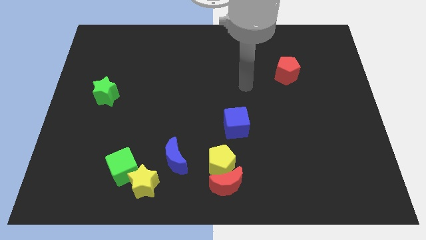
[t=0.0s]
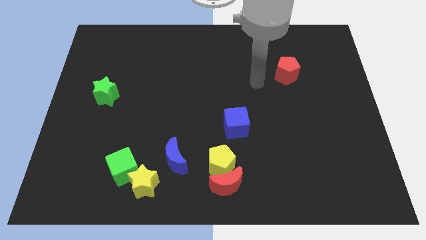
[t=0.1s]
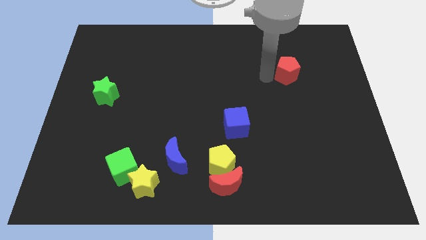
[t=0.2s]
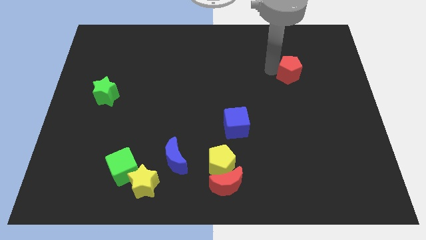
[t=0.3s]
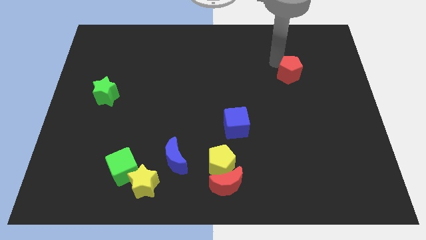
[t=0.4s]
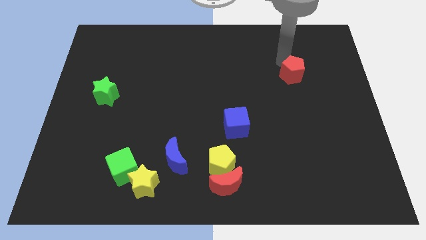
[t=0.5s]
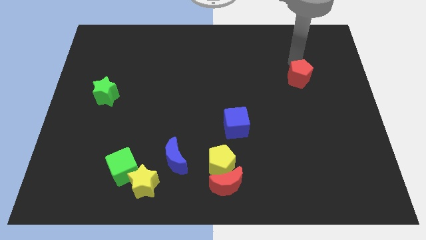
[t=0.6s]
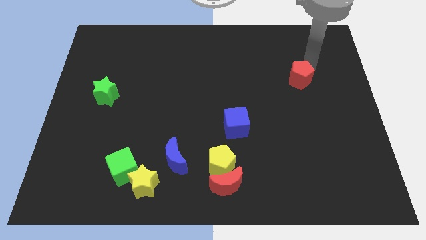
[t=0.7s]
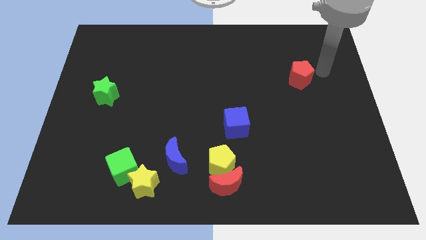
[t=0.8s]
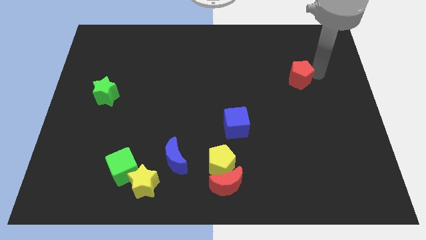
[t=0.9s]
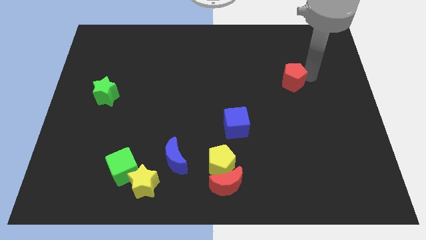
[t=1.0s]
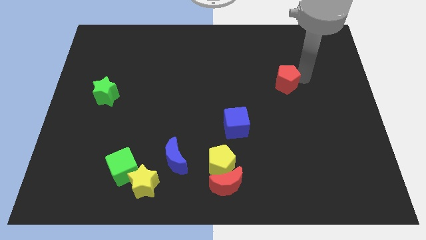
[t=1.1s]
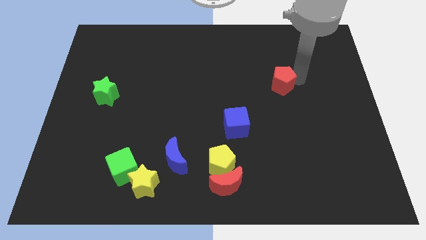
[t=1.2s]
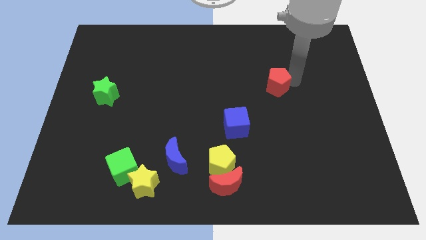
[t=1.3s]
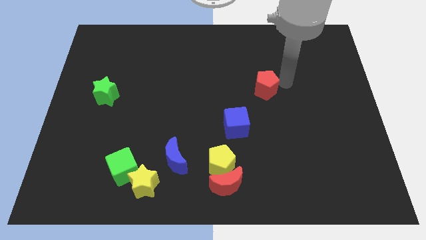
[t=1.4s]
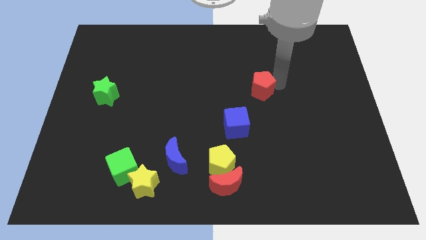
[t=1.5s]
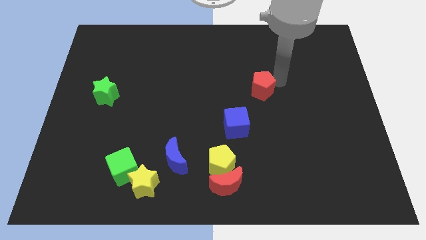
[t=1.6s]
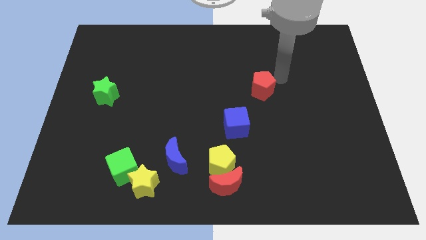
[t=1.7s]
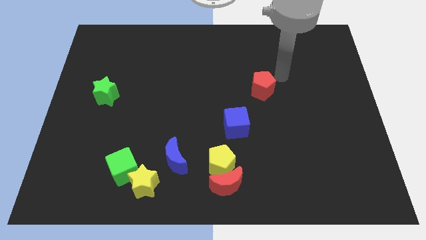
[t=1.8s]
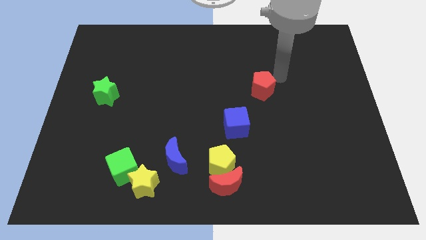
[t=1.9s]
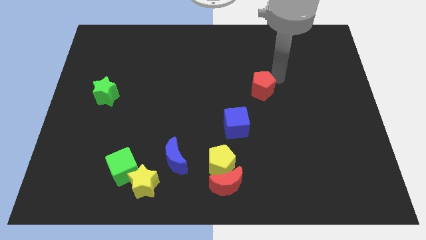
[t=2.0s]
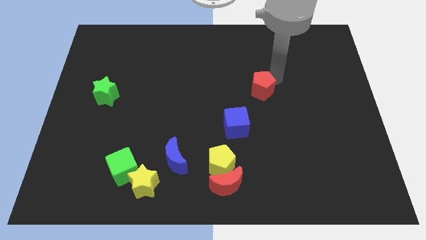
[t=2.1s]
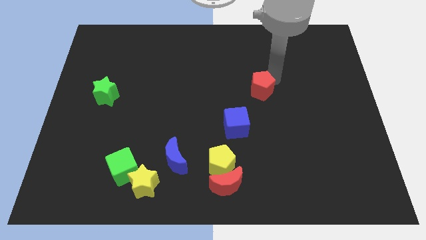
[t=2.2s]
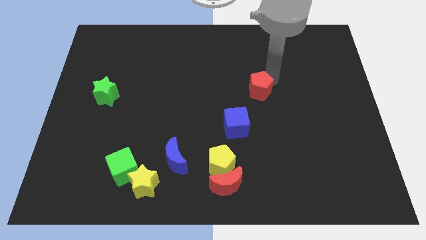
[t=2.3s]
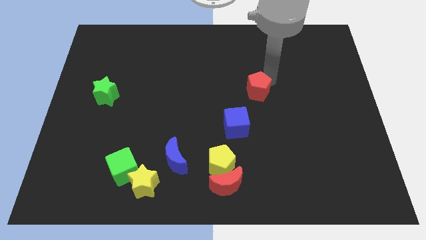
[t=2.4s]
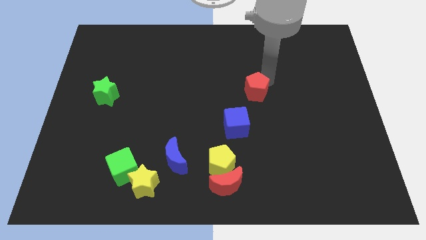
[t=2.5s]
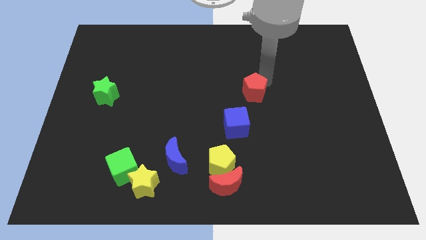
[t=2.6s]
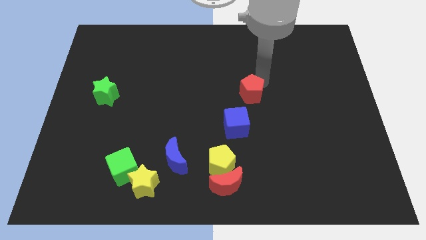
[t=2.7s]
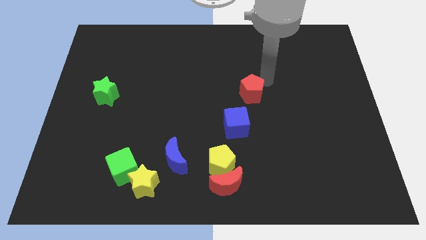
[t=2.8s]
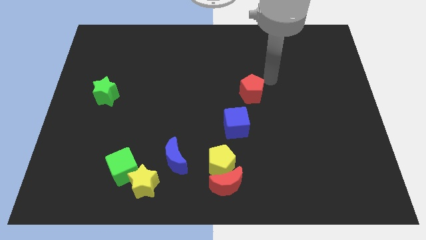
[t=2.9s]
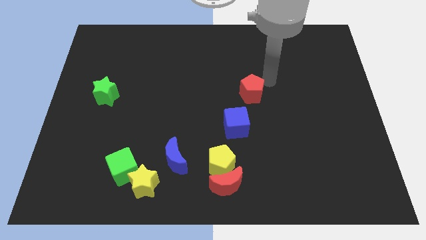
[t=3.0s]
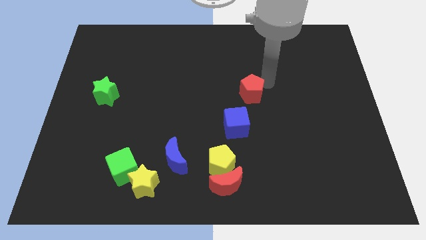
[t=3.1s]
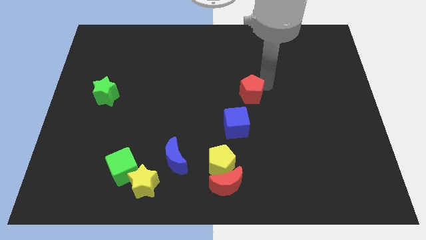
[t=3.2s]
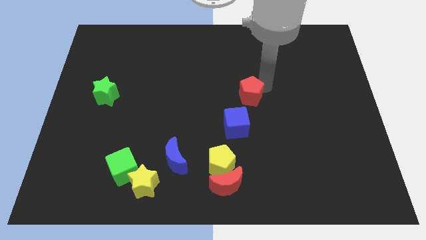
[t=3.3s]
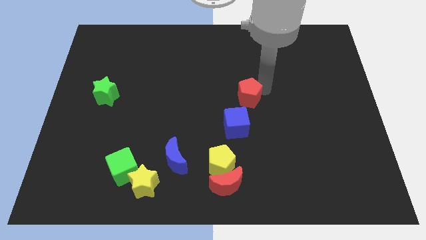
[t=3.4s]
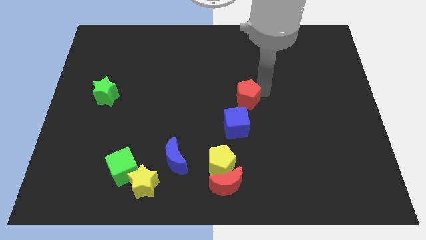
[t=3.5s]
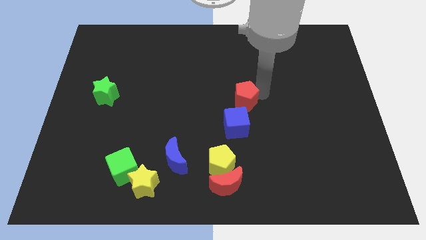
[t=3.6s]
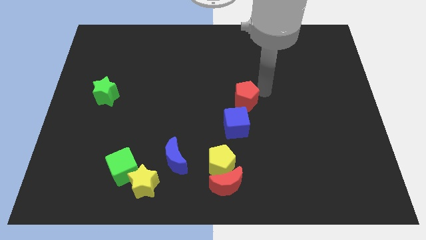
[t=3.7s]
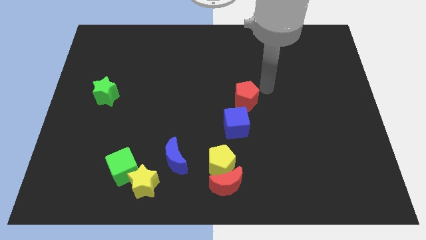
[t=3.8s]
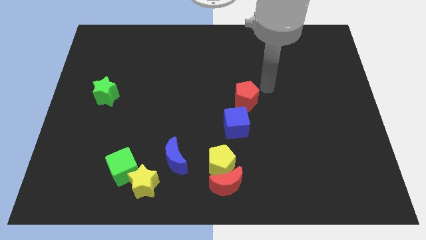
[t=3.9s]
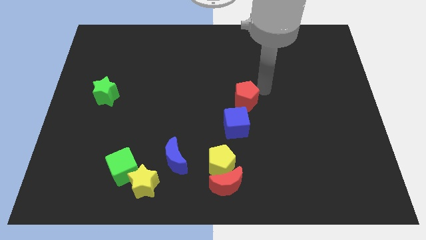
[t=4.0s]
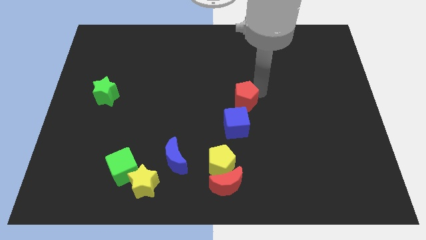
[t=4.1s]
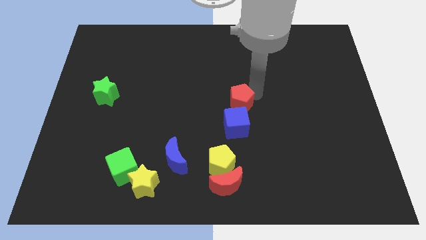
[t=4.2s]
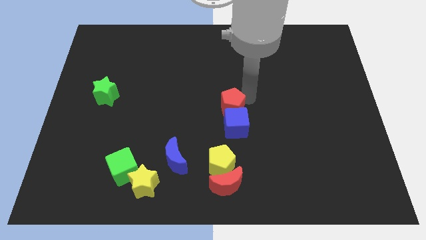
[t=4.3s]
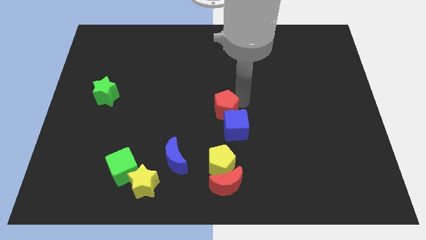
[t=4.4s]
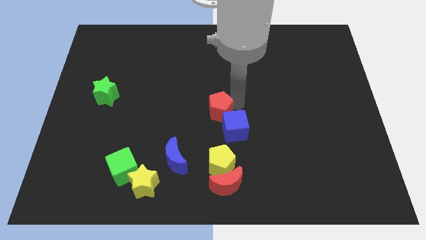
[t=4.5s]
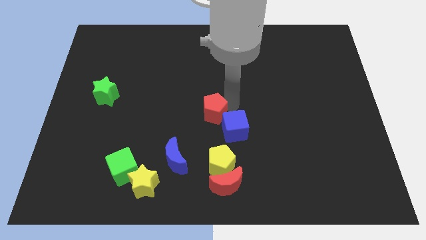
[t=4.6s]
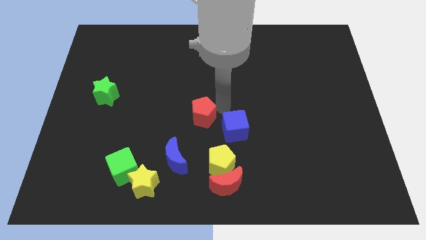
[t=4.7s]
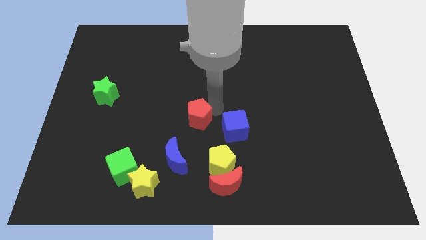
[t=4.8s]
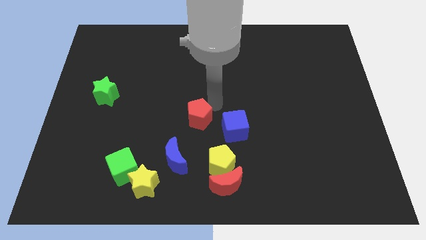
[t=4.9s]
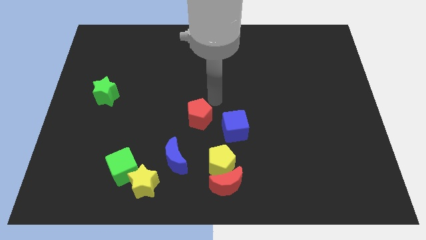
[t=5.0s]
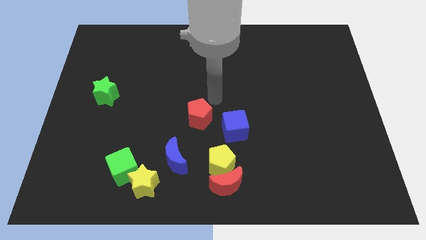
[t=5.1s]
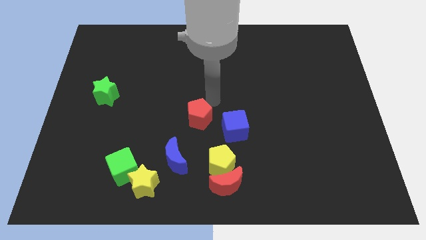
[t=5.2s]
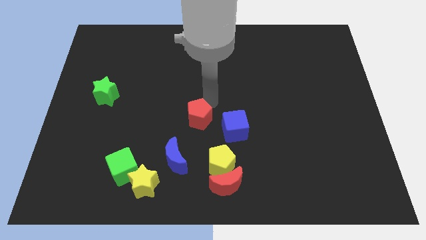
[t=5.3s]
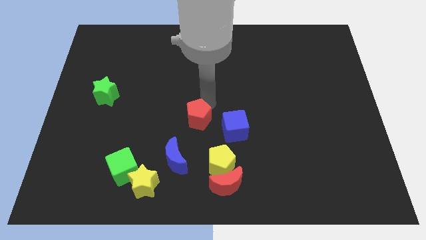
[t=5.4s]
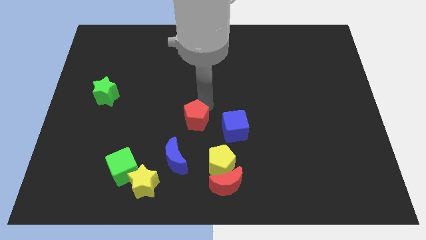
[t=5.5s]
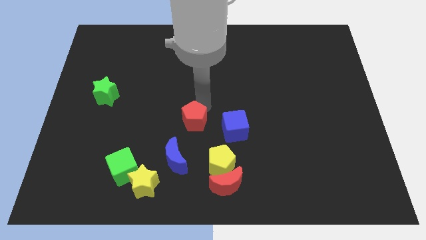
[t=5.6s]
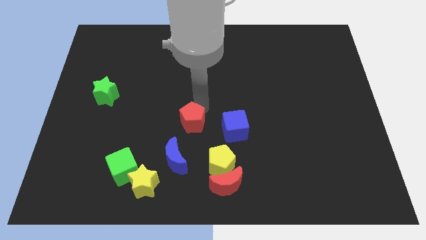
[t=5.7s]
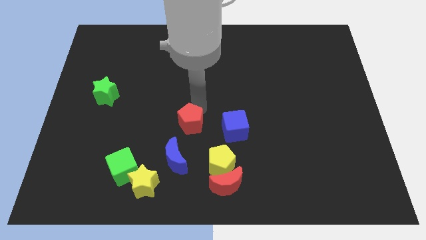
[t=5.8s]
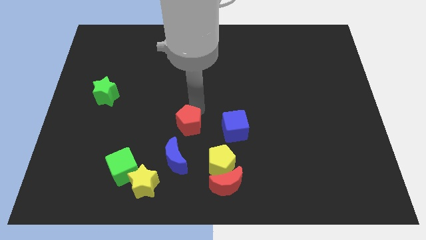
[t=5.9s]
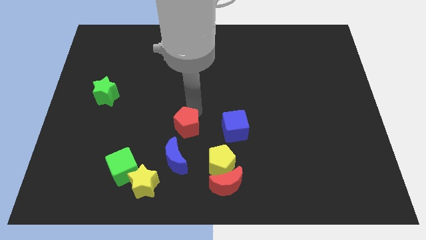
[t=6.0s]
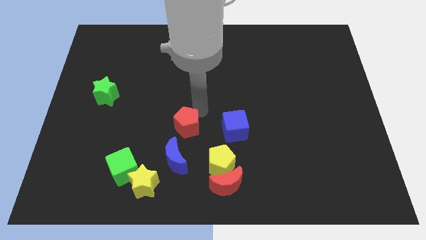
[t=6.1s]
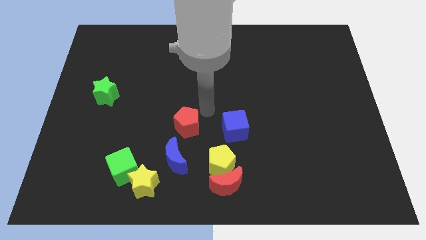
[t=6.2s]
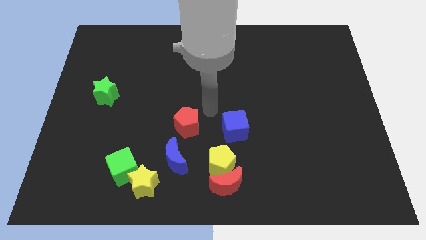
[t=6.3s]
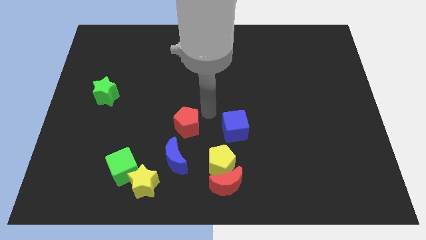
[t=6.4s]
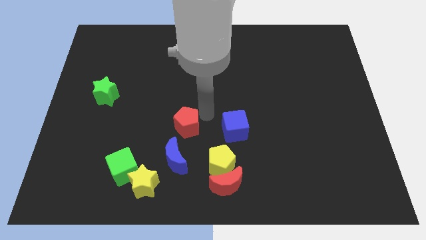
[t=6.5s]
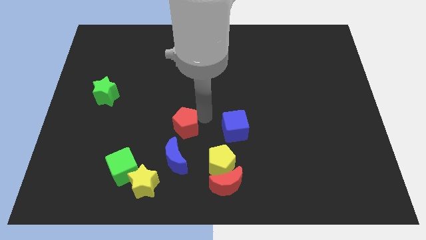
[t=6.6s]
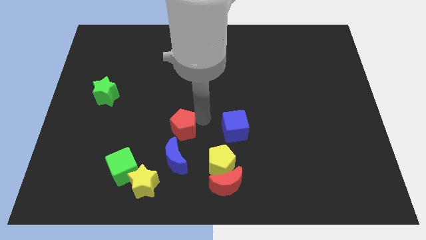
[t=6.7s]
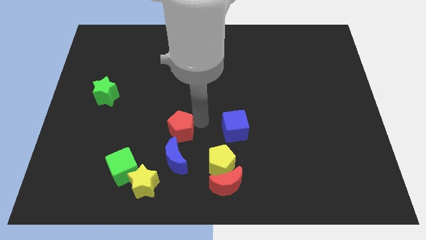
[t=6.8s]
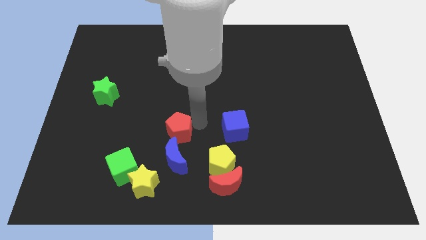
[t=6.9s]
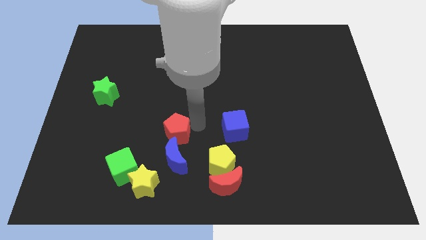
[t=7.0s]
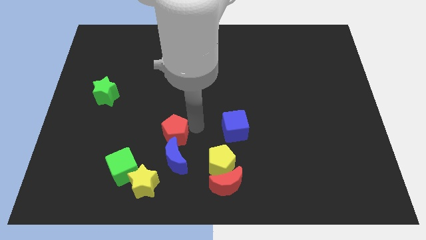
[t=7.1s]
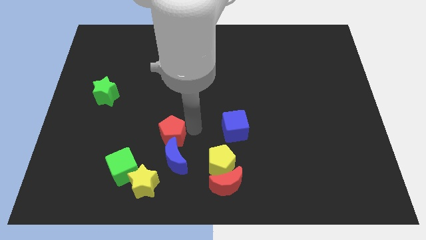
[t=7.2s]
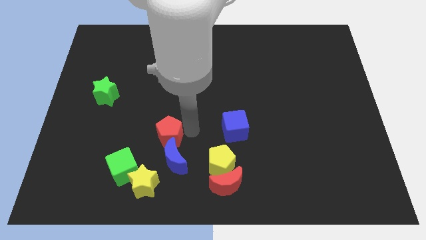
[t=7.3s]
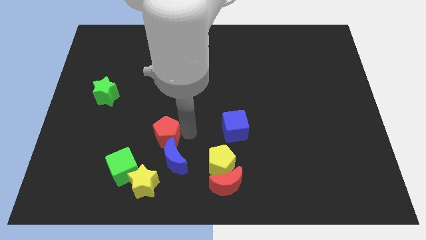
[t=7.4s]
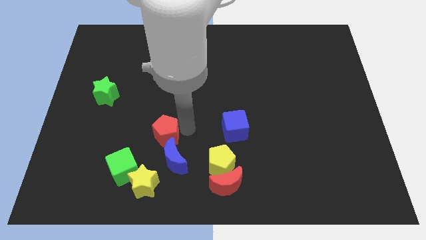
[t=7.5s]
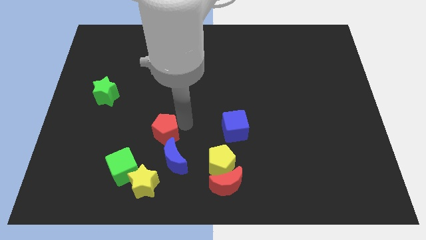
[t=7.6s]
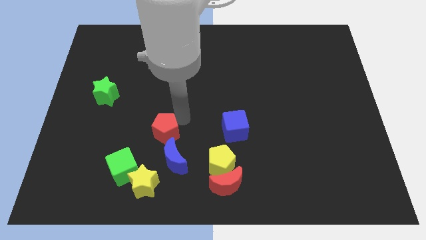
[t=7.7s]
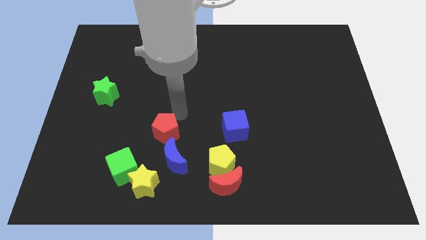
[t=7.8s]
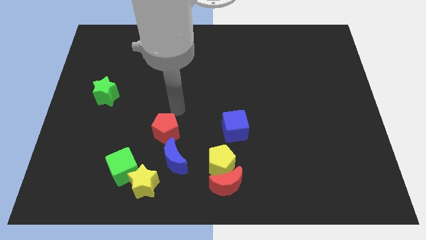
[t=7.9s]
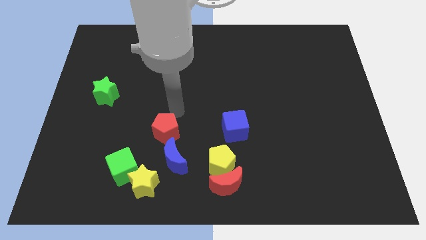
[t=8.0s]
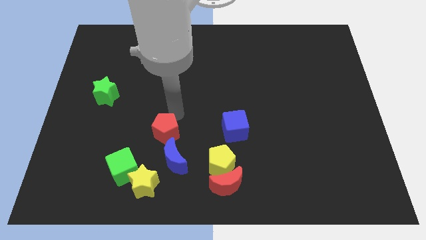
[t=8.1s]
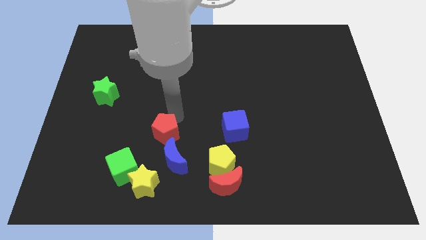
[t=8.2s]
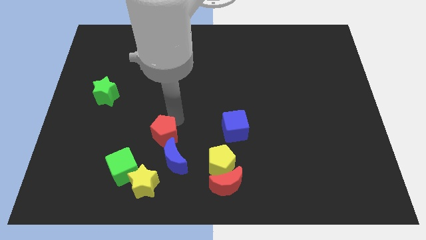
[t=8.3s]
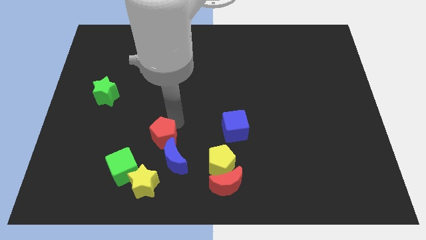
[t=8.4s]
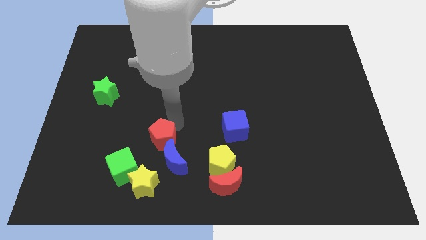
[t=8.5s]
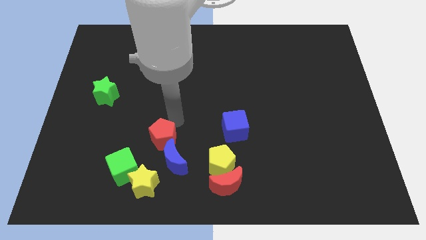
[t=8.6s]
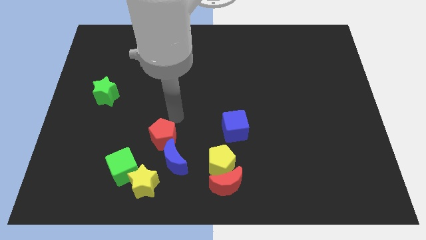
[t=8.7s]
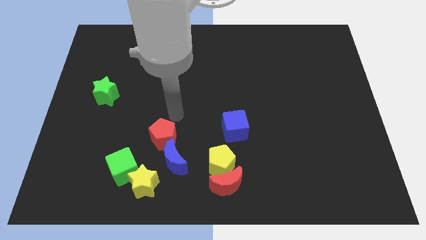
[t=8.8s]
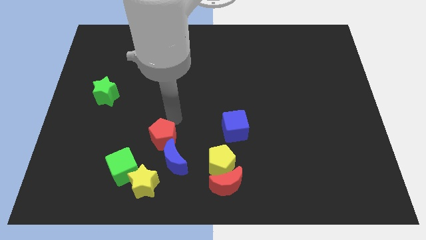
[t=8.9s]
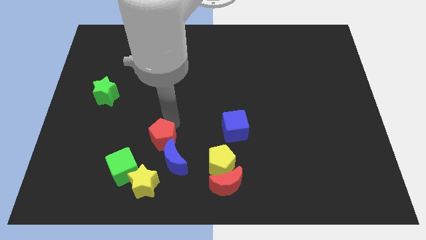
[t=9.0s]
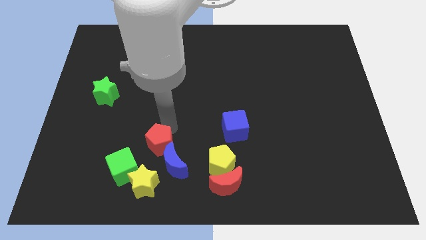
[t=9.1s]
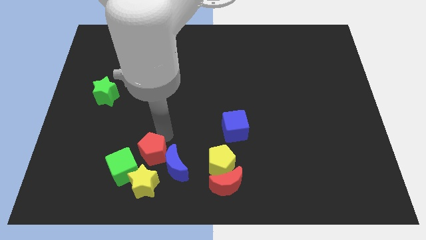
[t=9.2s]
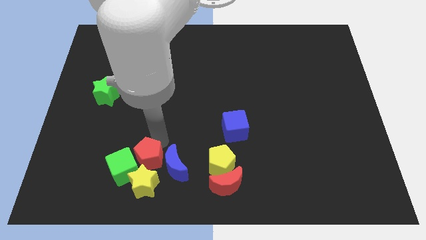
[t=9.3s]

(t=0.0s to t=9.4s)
slide the red pentagon to the yellow star
